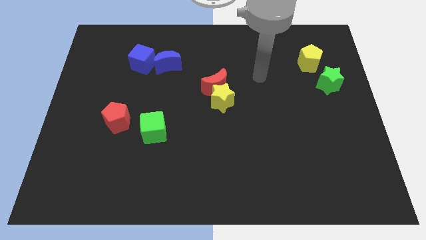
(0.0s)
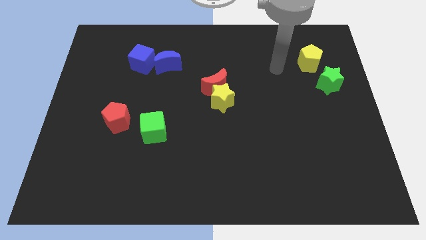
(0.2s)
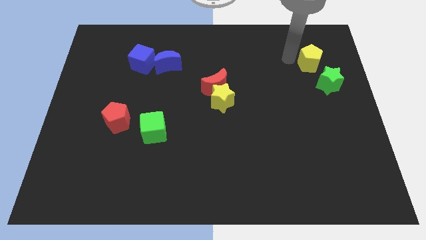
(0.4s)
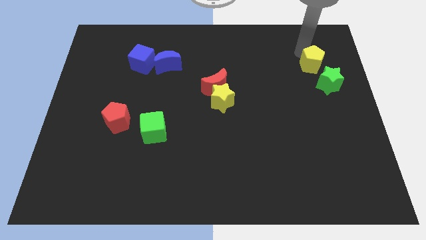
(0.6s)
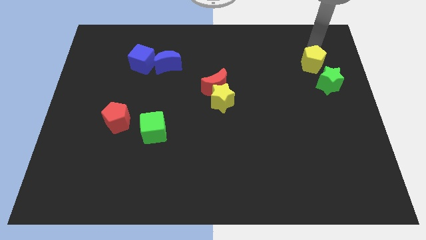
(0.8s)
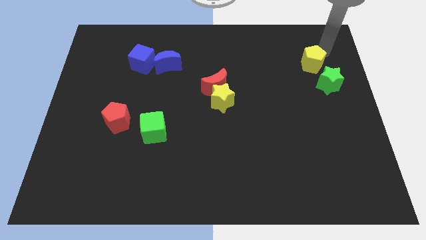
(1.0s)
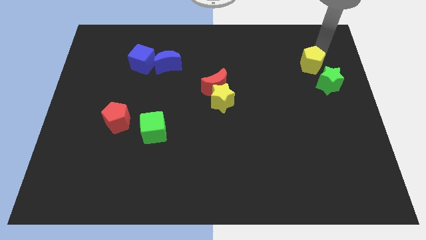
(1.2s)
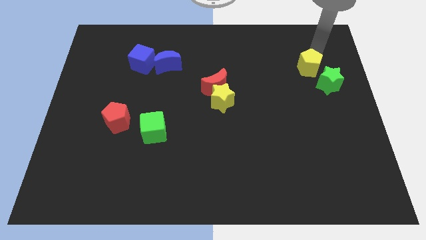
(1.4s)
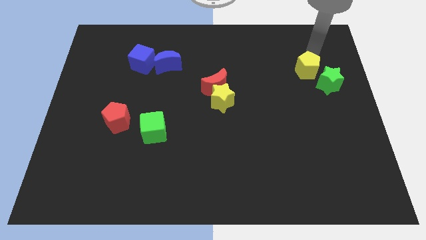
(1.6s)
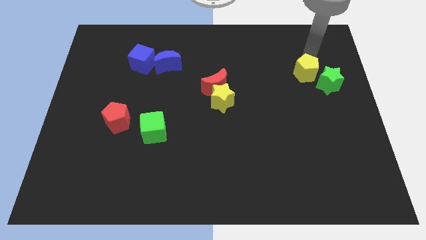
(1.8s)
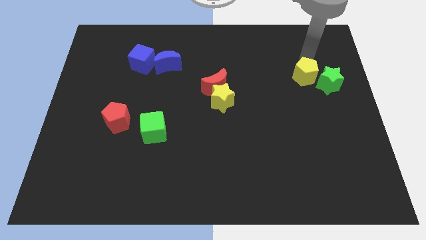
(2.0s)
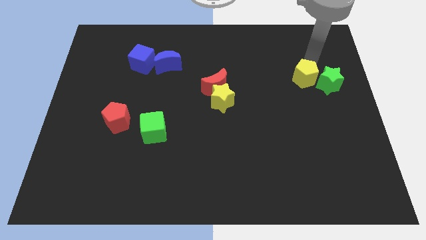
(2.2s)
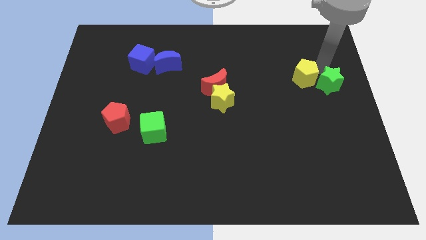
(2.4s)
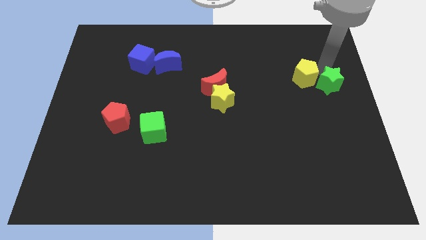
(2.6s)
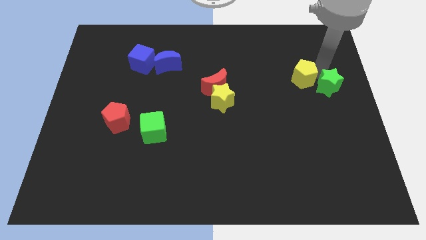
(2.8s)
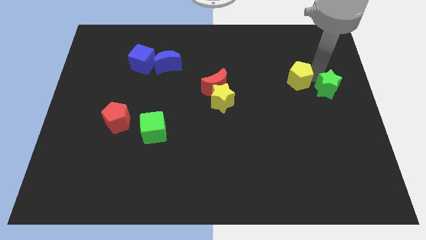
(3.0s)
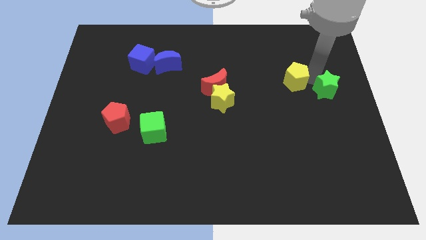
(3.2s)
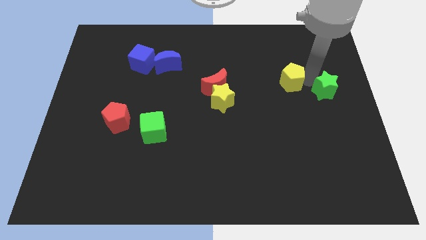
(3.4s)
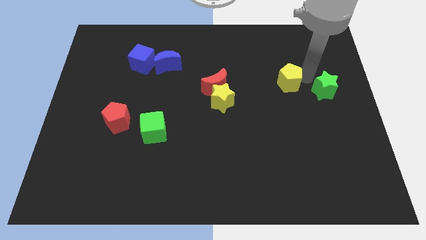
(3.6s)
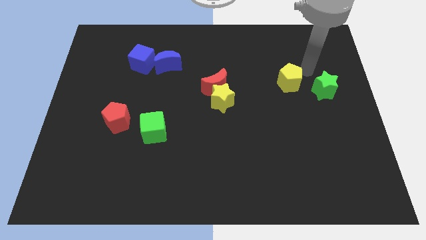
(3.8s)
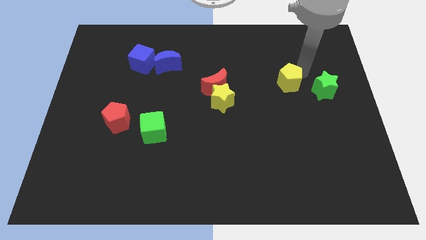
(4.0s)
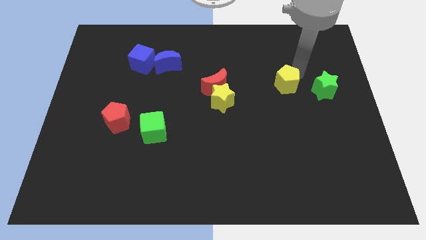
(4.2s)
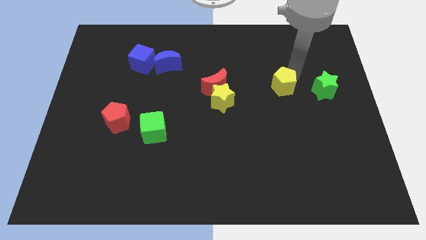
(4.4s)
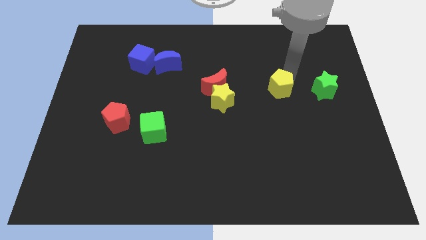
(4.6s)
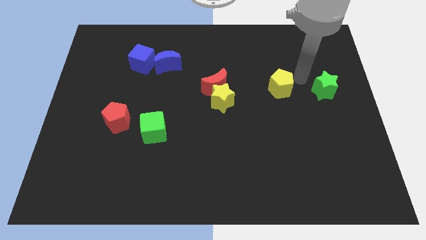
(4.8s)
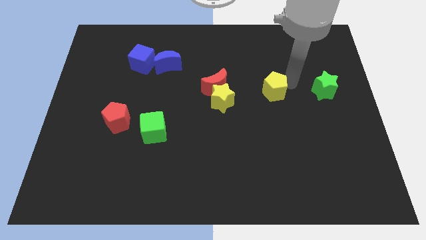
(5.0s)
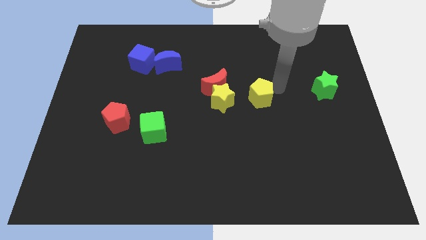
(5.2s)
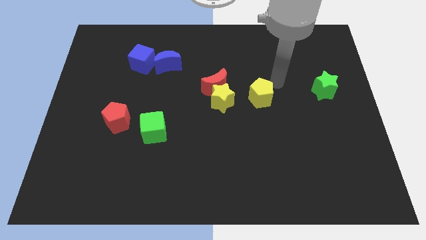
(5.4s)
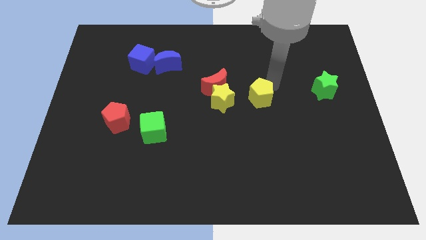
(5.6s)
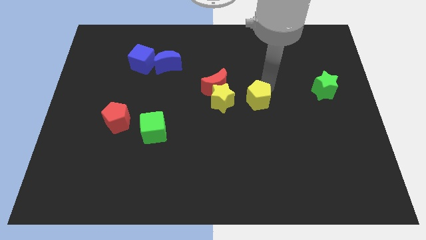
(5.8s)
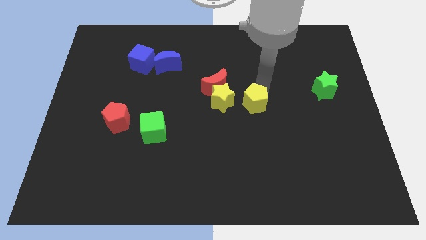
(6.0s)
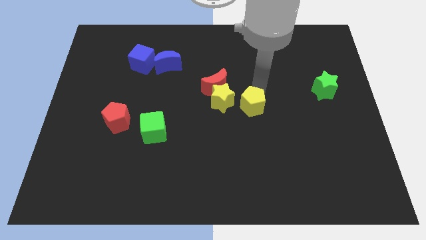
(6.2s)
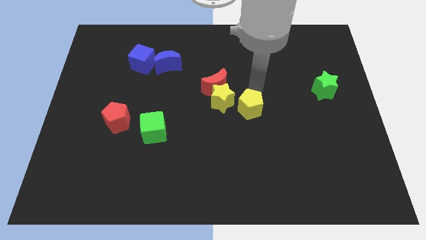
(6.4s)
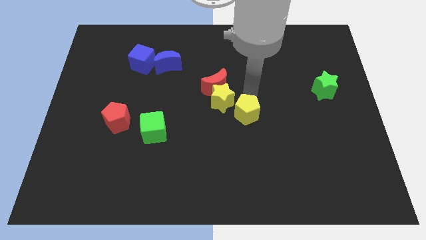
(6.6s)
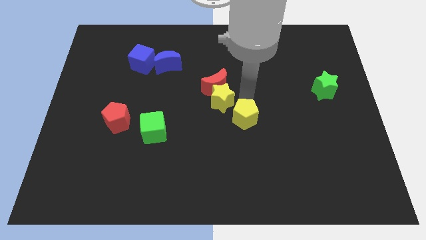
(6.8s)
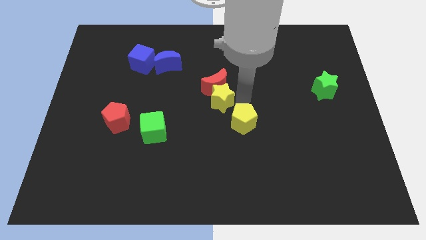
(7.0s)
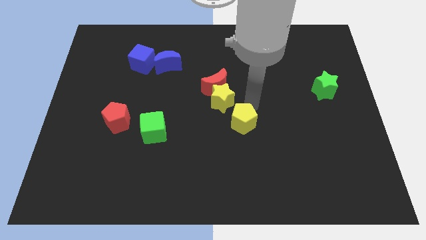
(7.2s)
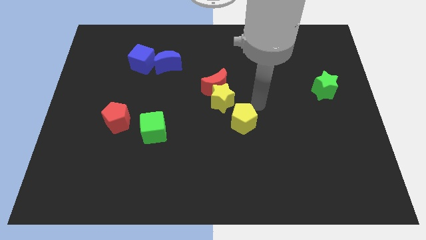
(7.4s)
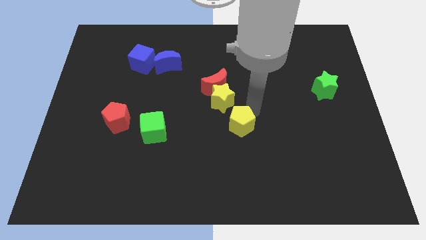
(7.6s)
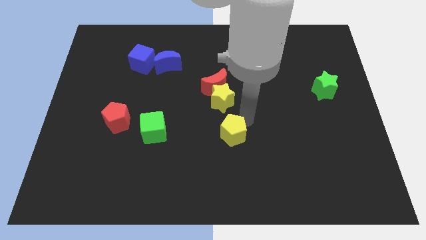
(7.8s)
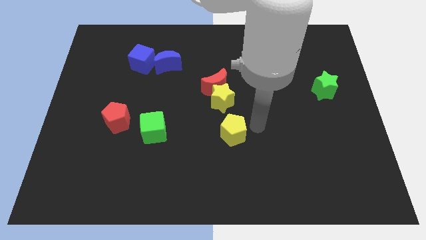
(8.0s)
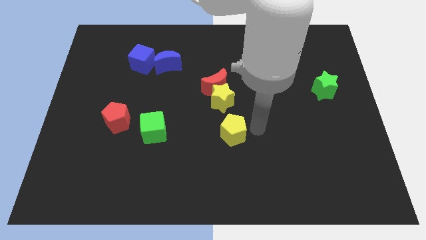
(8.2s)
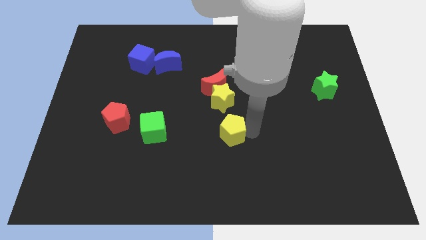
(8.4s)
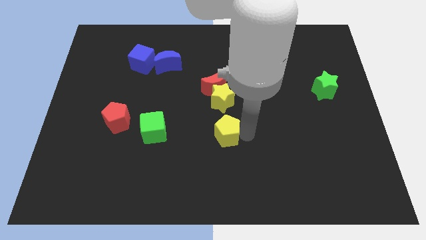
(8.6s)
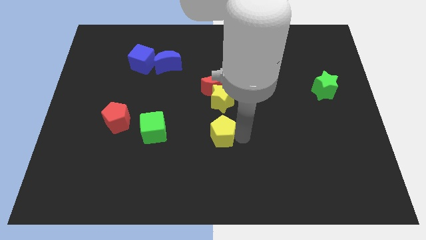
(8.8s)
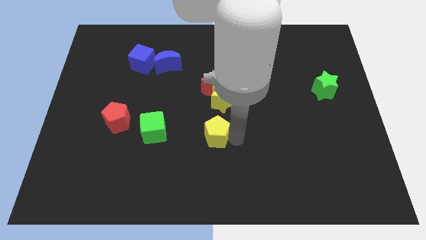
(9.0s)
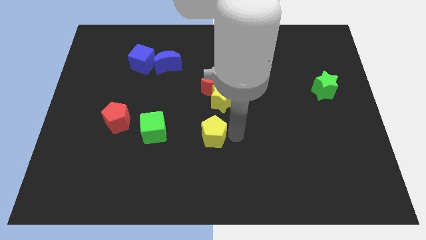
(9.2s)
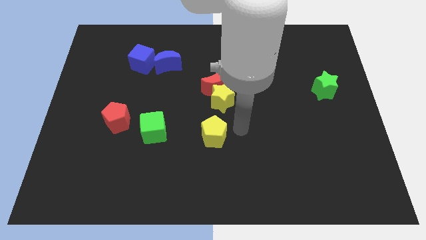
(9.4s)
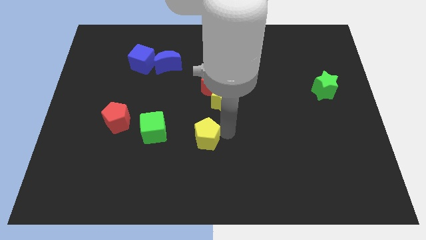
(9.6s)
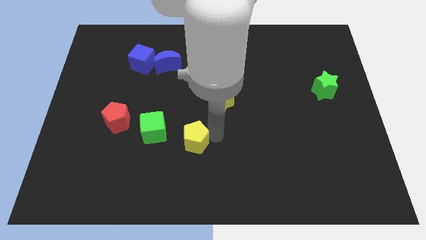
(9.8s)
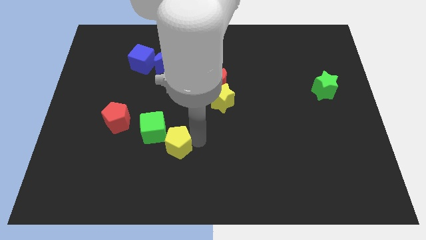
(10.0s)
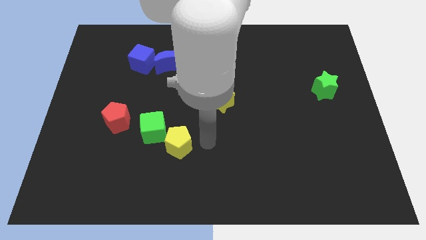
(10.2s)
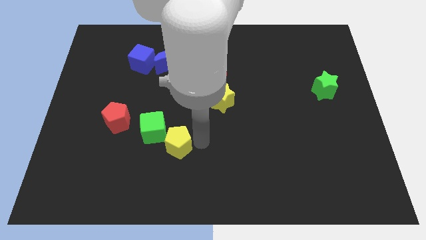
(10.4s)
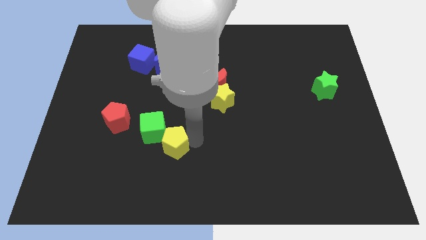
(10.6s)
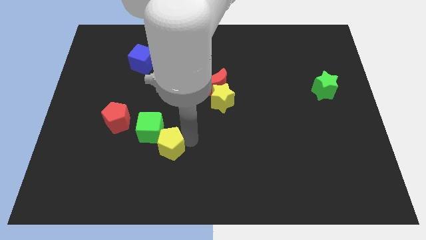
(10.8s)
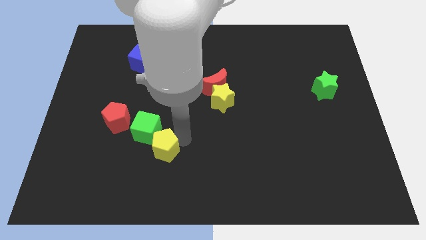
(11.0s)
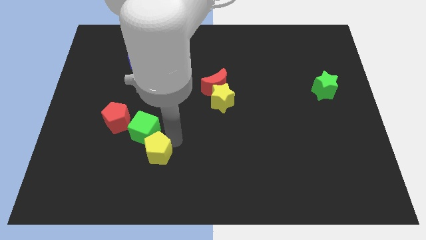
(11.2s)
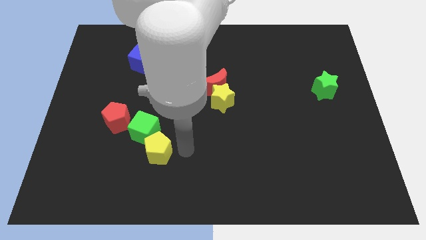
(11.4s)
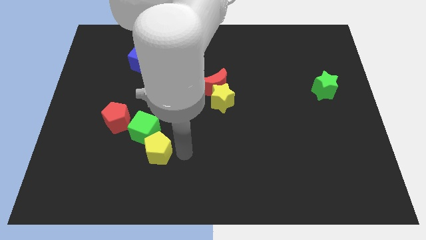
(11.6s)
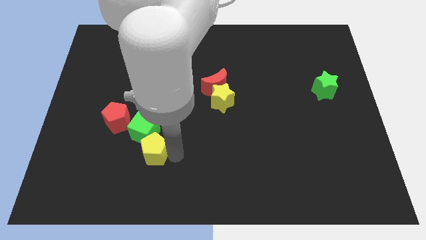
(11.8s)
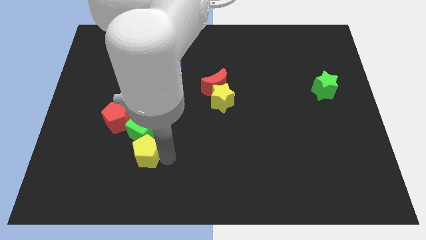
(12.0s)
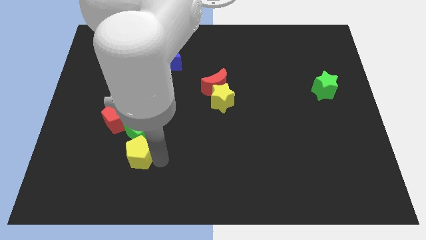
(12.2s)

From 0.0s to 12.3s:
slide the yellow pentagon diagonally down and to the left of the green cube
